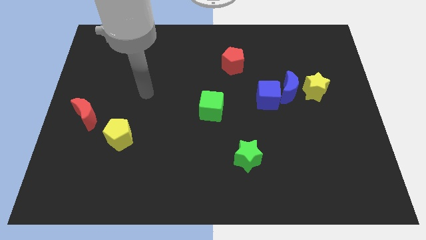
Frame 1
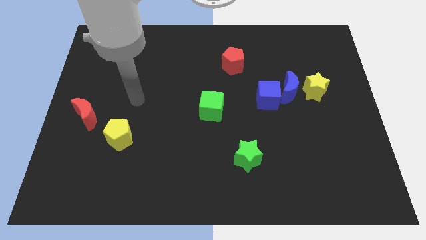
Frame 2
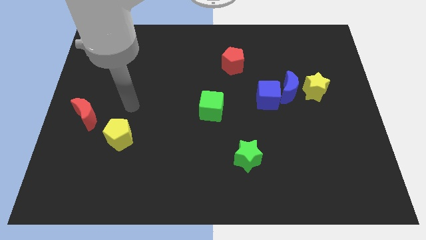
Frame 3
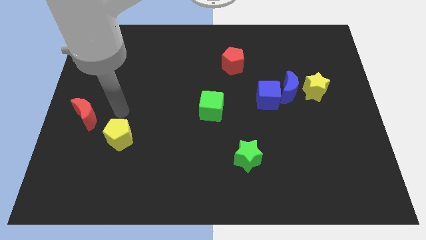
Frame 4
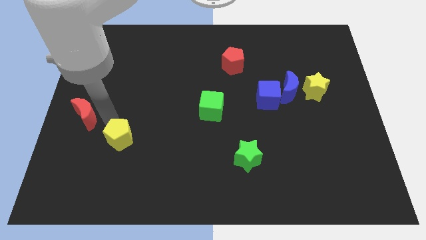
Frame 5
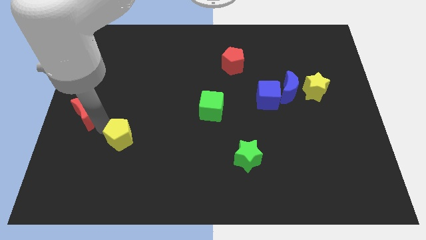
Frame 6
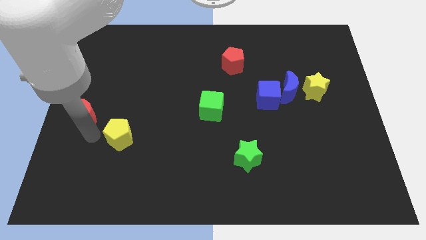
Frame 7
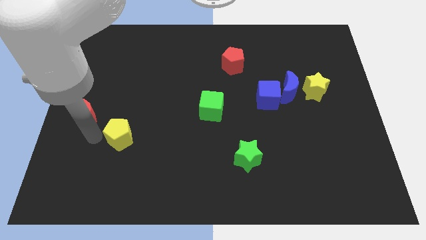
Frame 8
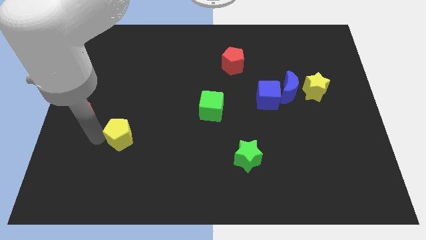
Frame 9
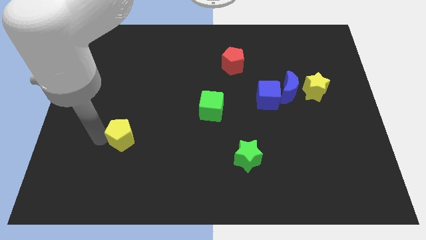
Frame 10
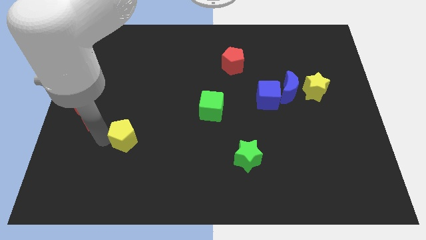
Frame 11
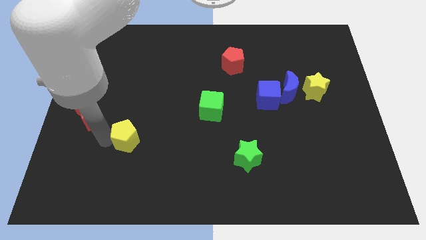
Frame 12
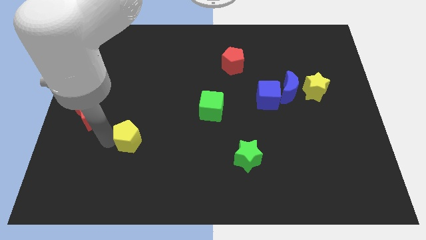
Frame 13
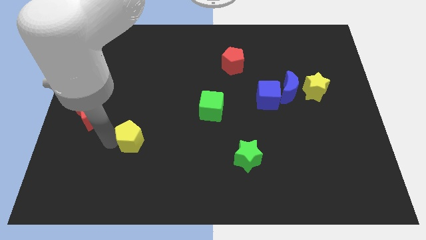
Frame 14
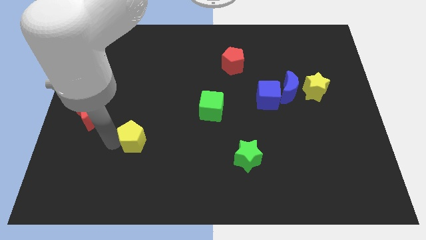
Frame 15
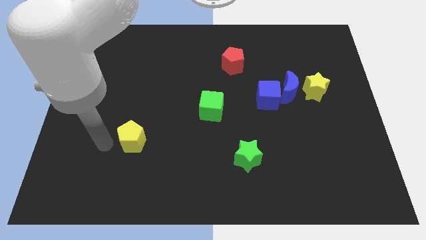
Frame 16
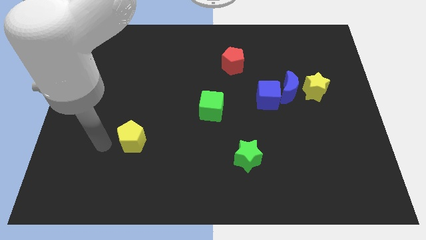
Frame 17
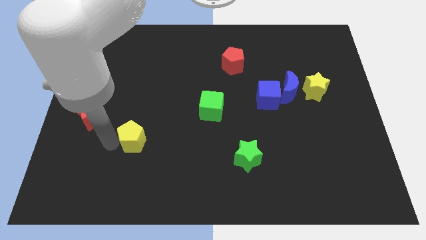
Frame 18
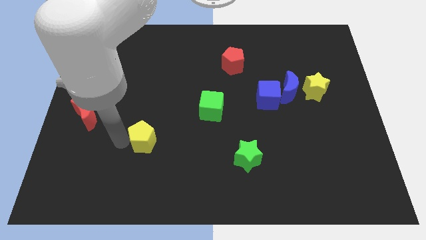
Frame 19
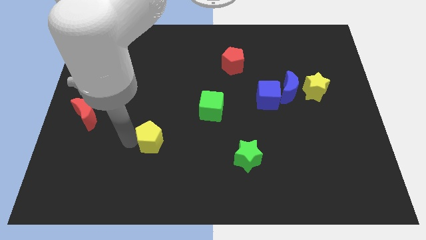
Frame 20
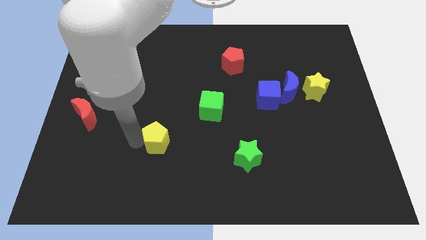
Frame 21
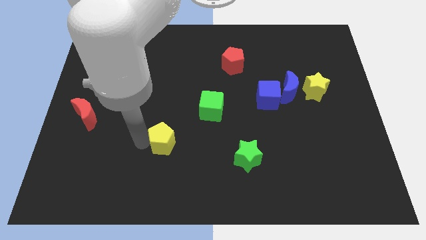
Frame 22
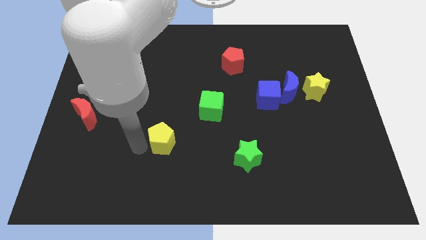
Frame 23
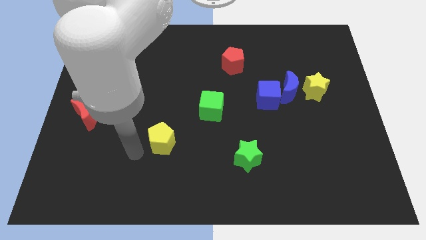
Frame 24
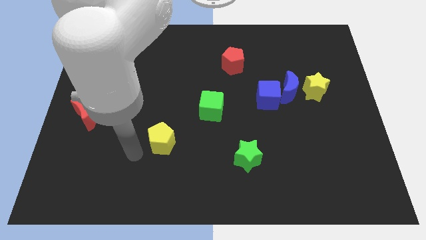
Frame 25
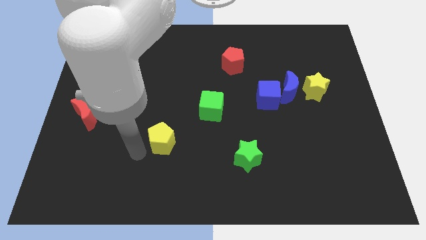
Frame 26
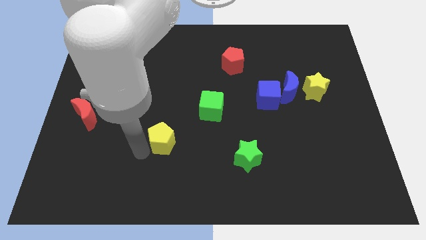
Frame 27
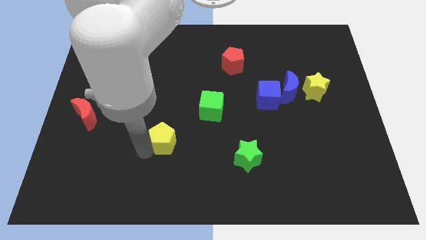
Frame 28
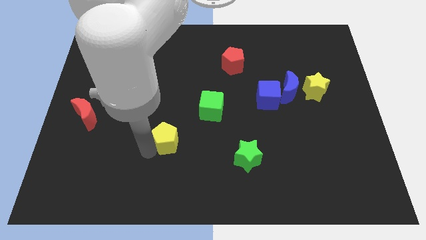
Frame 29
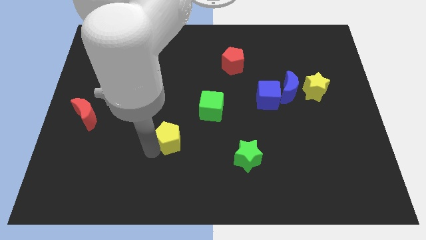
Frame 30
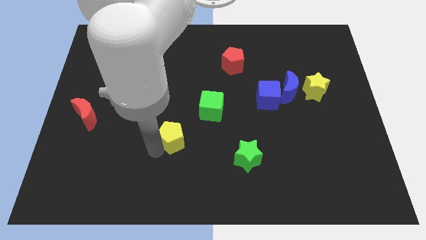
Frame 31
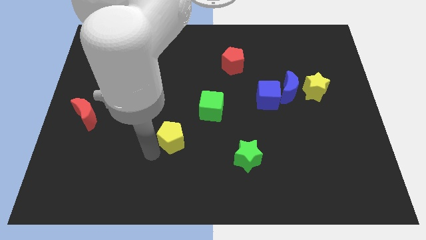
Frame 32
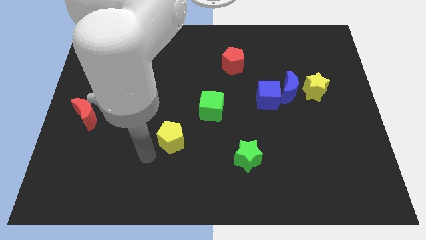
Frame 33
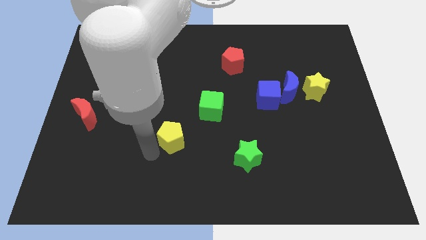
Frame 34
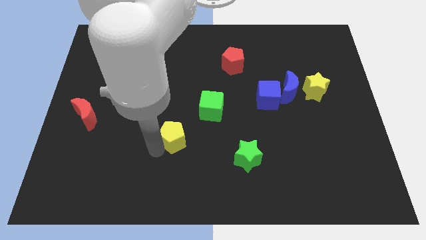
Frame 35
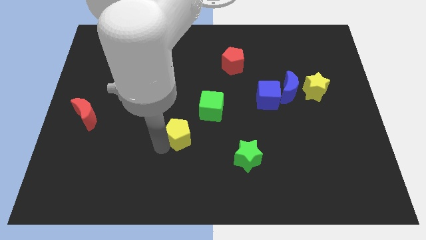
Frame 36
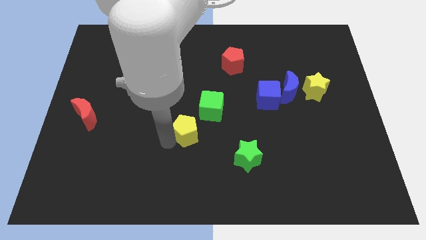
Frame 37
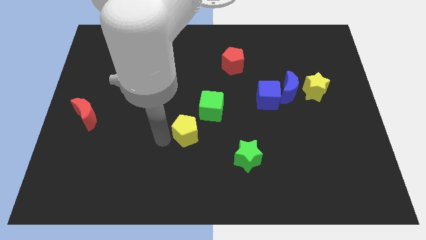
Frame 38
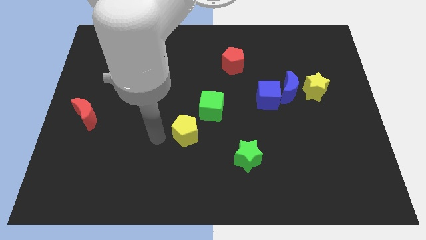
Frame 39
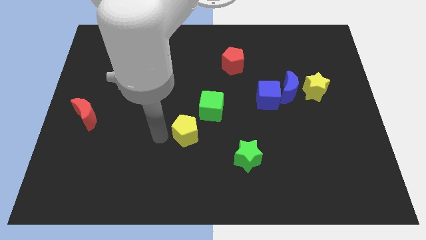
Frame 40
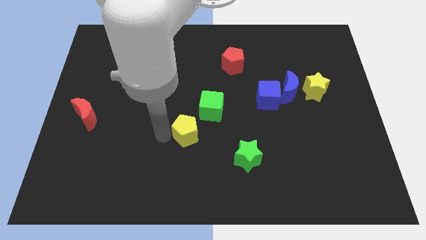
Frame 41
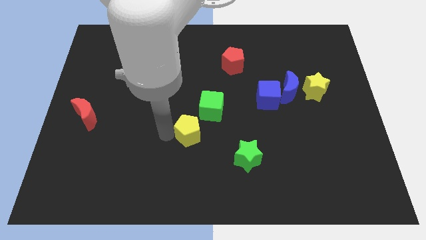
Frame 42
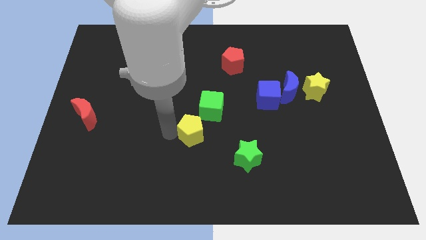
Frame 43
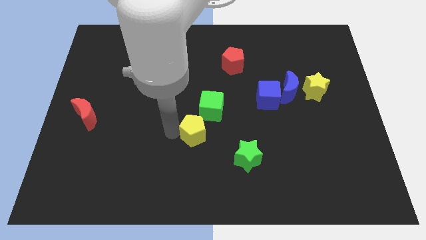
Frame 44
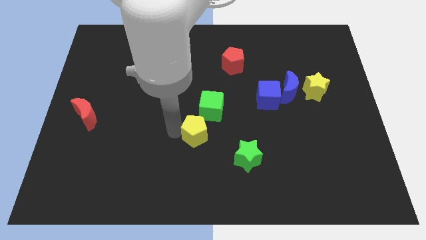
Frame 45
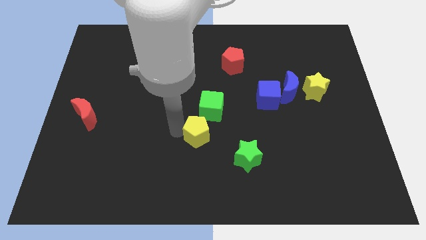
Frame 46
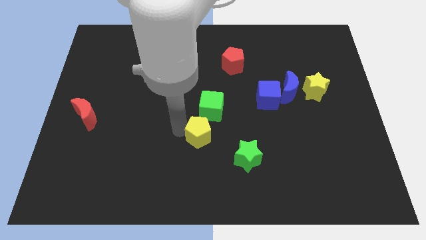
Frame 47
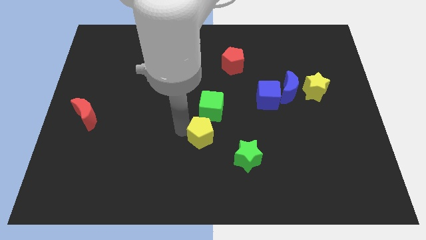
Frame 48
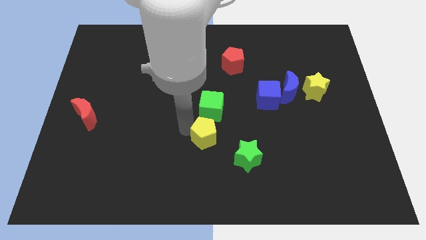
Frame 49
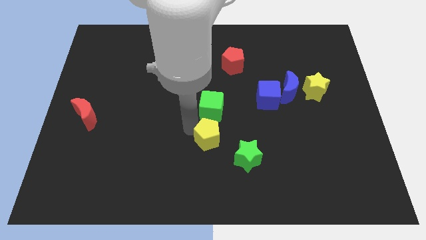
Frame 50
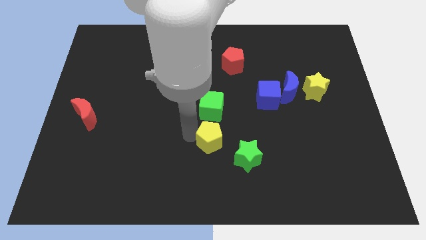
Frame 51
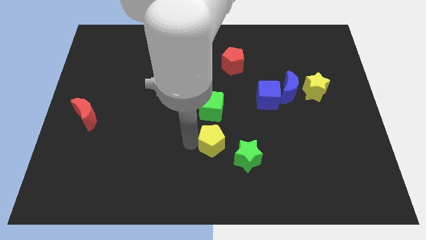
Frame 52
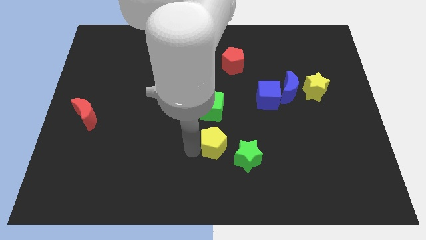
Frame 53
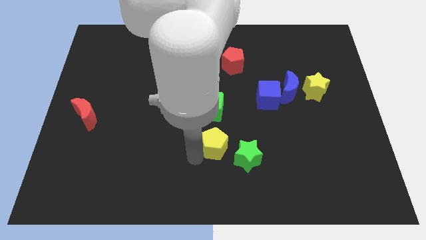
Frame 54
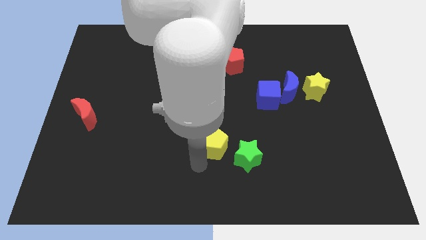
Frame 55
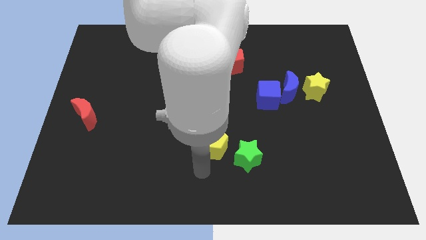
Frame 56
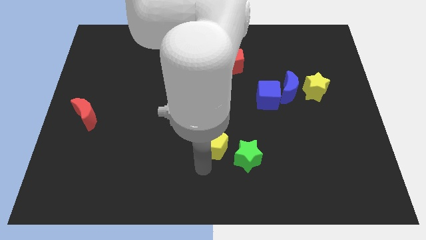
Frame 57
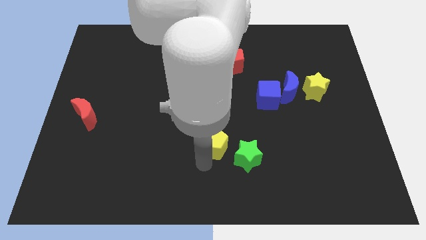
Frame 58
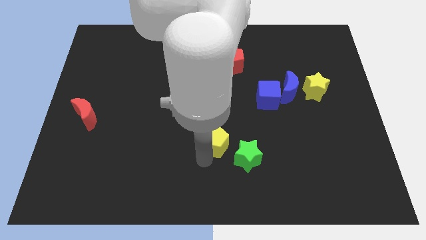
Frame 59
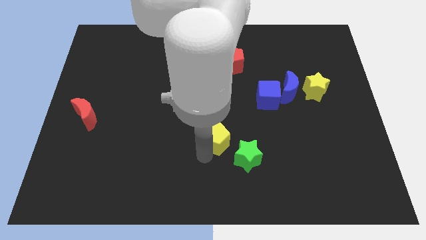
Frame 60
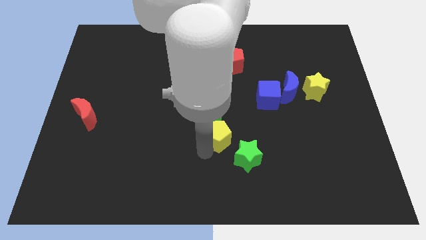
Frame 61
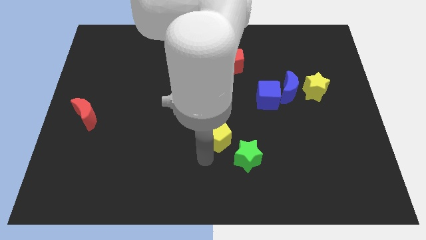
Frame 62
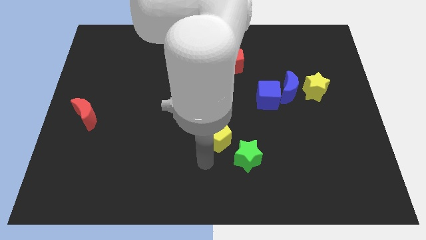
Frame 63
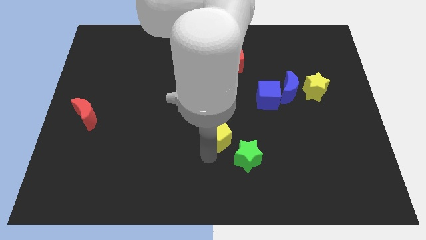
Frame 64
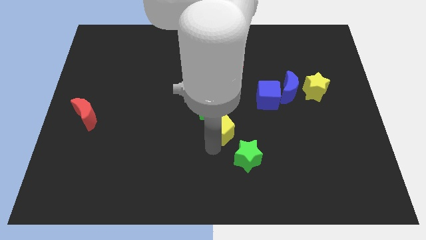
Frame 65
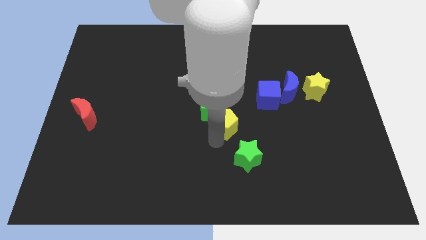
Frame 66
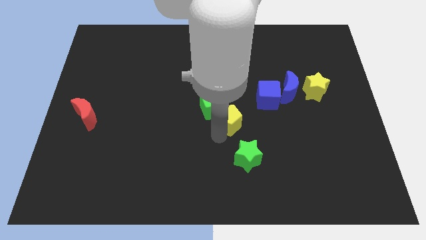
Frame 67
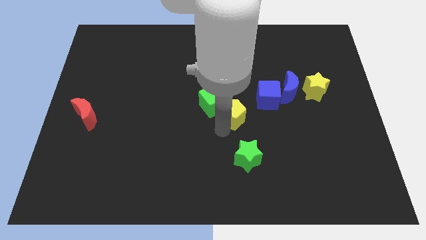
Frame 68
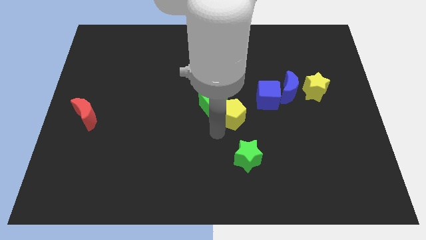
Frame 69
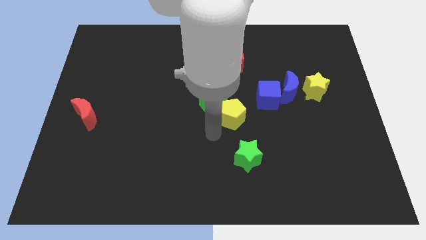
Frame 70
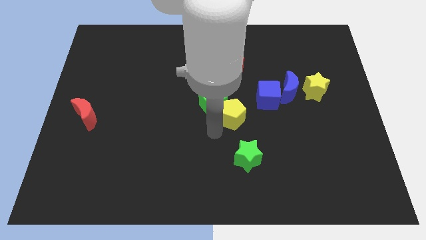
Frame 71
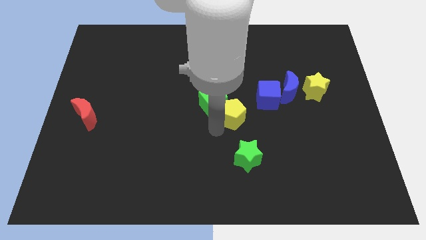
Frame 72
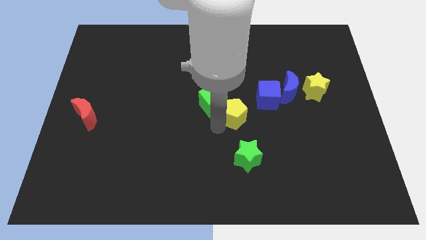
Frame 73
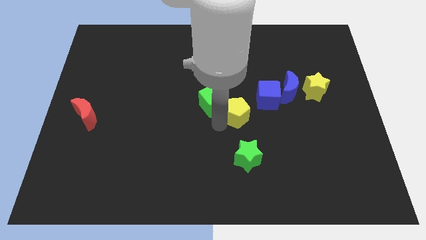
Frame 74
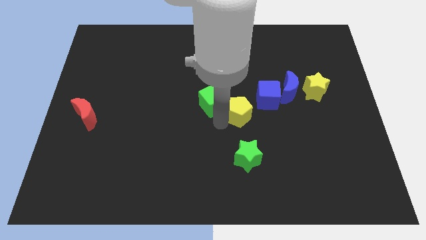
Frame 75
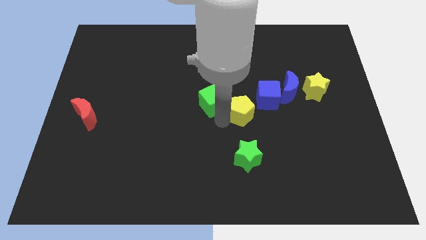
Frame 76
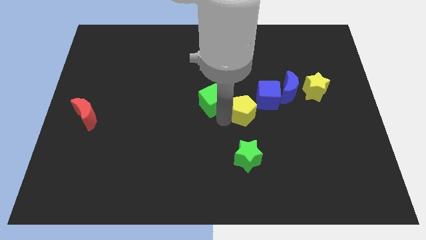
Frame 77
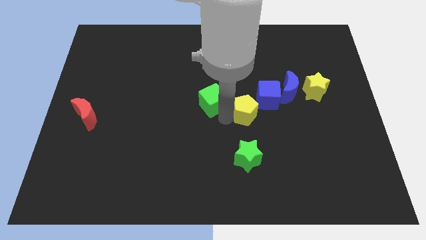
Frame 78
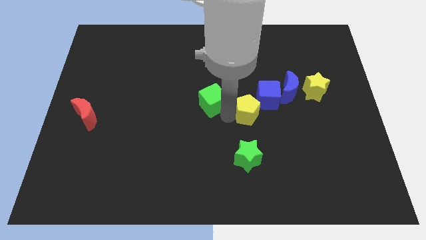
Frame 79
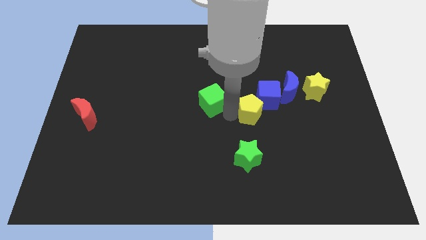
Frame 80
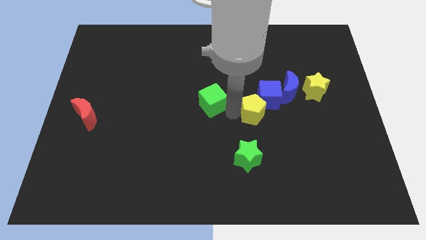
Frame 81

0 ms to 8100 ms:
slide the yellow pentagon to the blue cube
